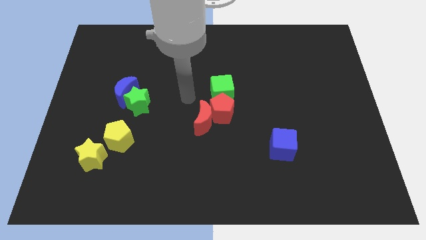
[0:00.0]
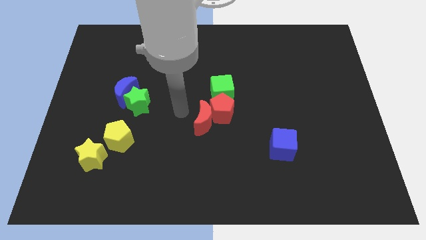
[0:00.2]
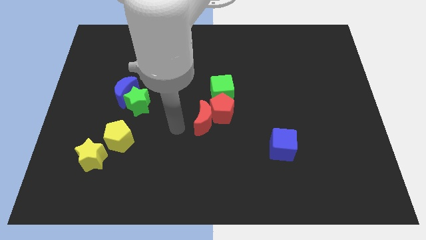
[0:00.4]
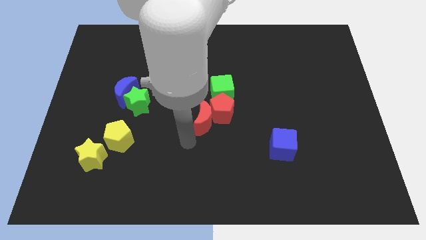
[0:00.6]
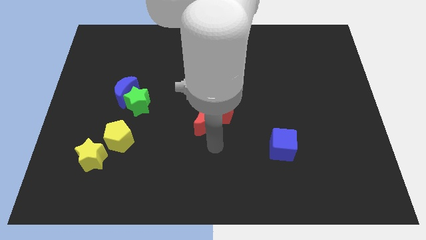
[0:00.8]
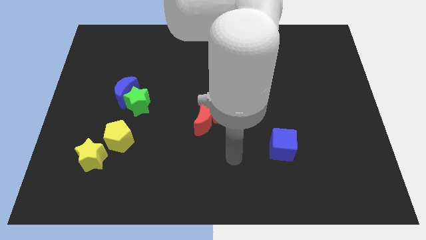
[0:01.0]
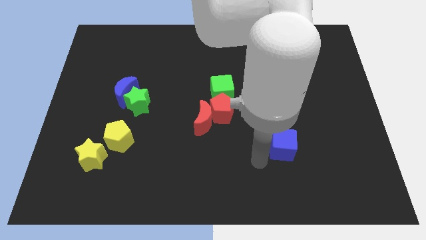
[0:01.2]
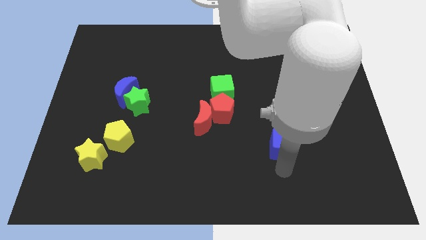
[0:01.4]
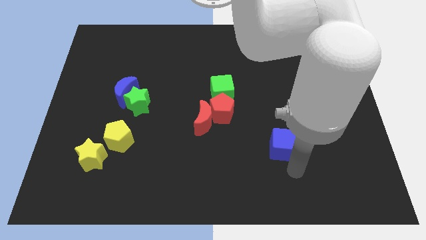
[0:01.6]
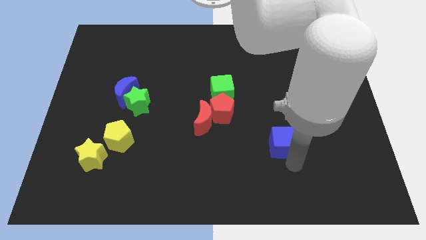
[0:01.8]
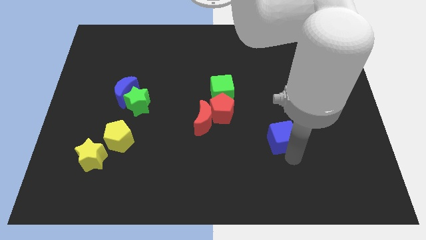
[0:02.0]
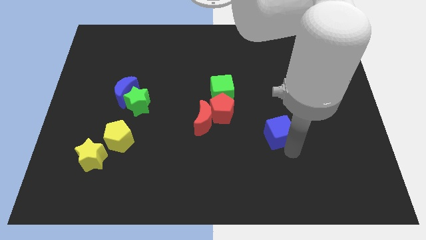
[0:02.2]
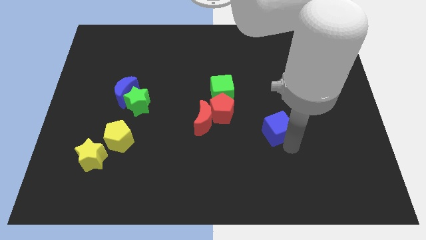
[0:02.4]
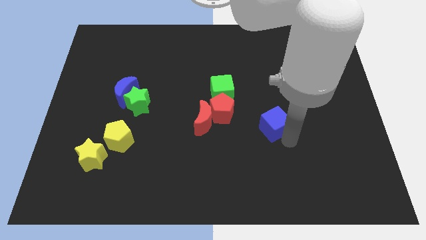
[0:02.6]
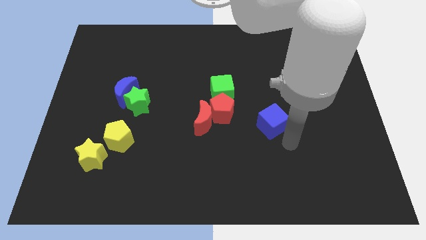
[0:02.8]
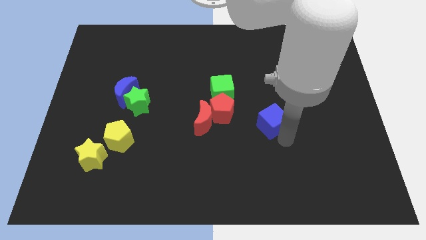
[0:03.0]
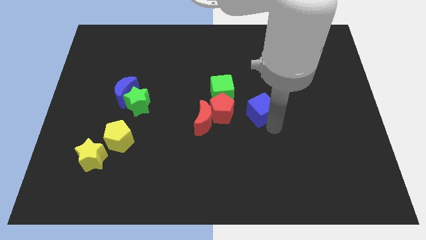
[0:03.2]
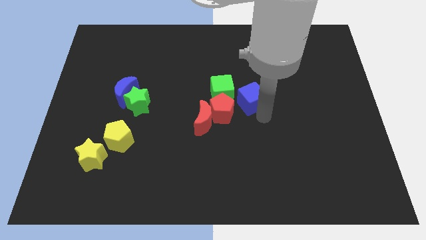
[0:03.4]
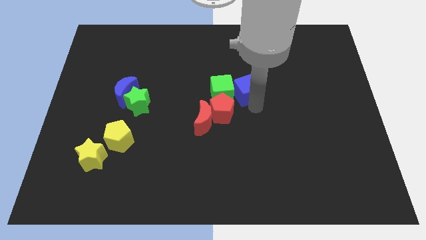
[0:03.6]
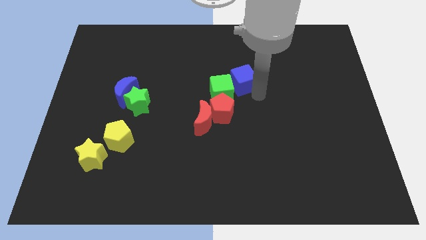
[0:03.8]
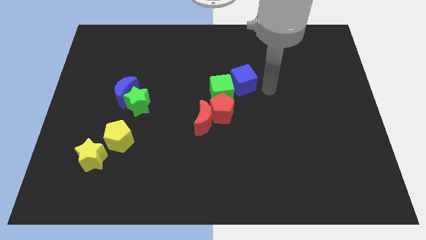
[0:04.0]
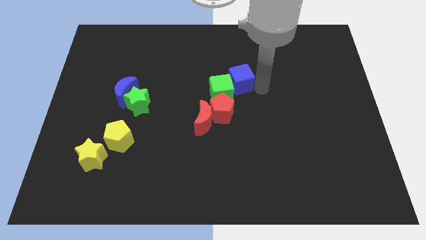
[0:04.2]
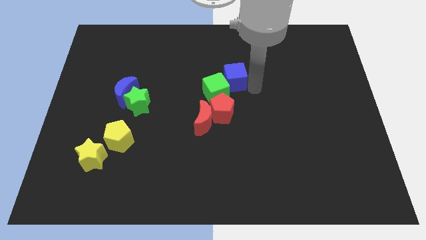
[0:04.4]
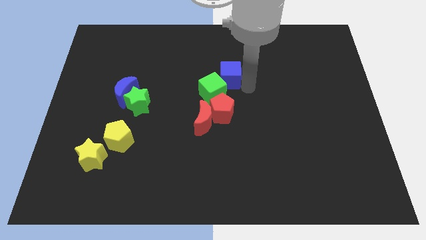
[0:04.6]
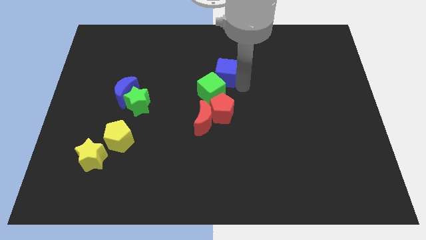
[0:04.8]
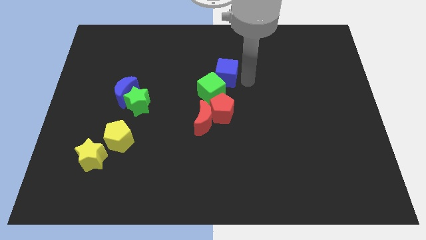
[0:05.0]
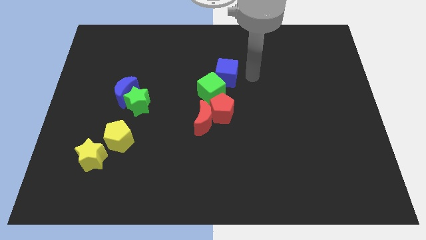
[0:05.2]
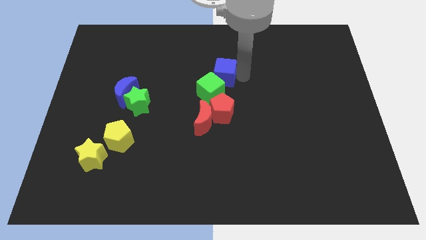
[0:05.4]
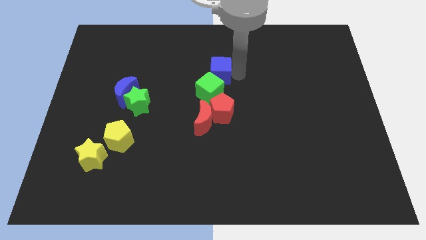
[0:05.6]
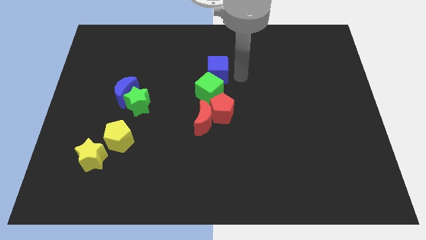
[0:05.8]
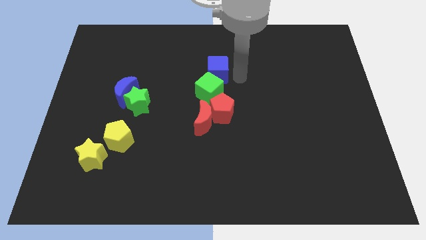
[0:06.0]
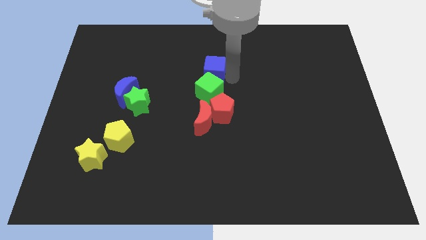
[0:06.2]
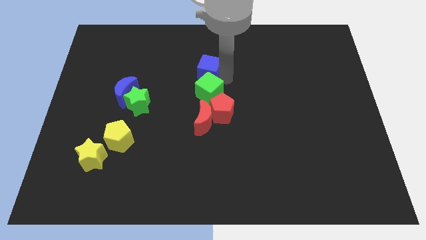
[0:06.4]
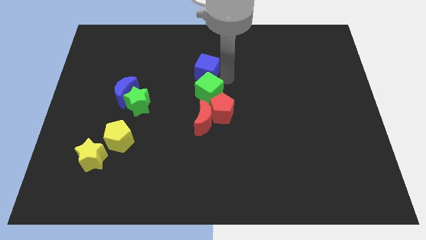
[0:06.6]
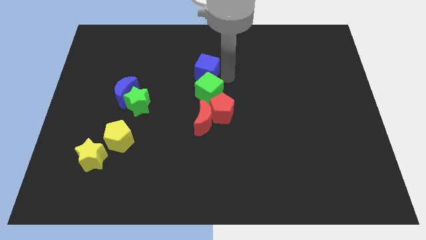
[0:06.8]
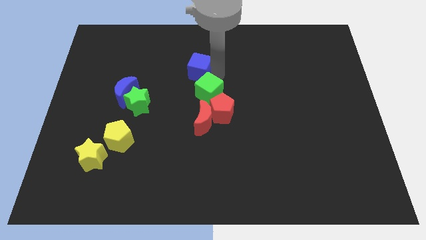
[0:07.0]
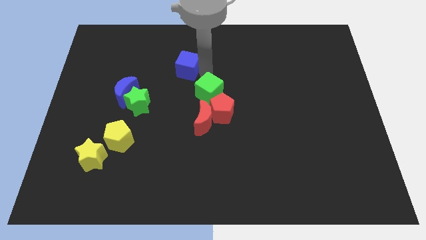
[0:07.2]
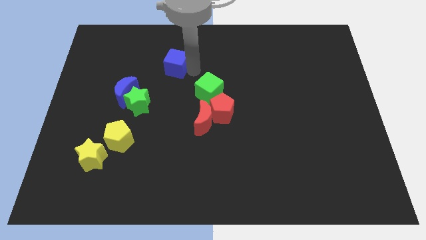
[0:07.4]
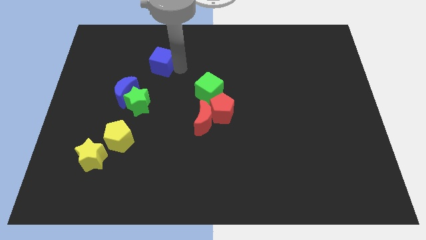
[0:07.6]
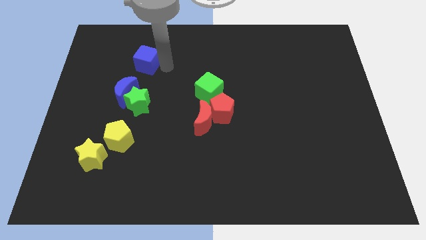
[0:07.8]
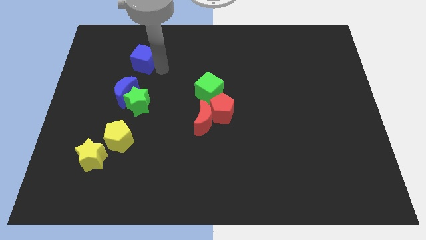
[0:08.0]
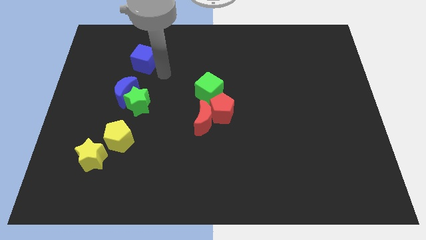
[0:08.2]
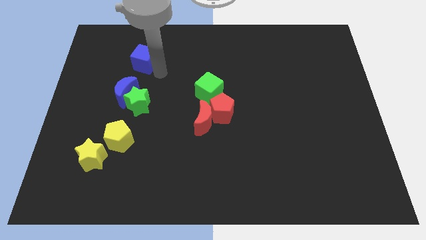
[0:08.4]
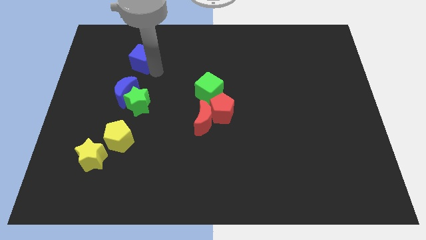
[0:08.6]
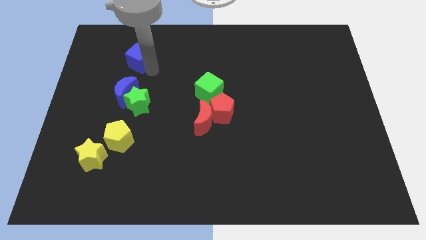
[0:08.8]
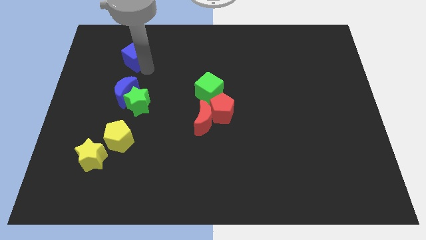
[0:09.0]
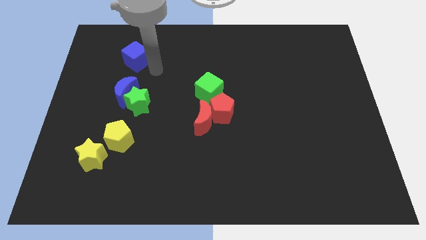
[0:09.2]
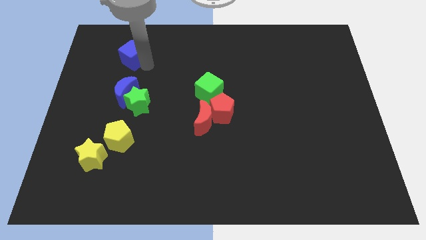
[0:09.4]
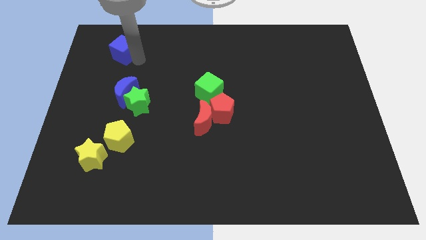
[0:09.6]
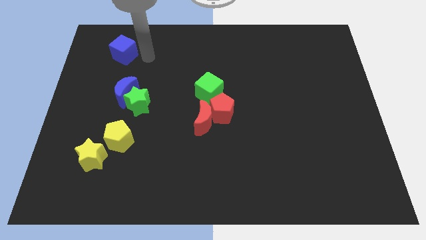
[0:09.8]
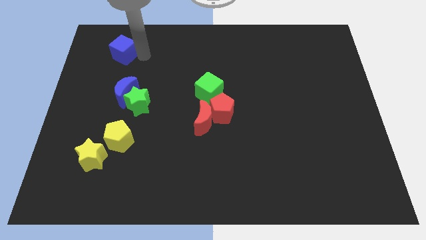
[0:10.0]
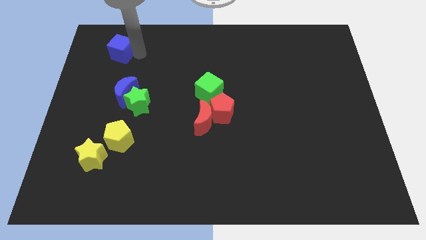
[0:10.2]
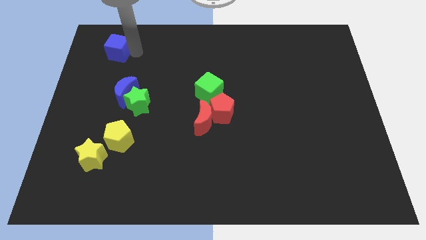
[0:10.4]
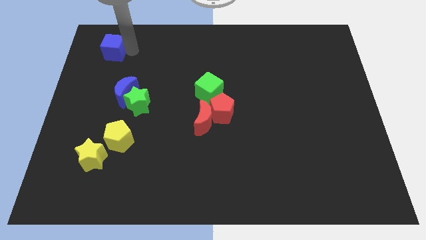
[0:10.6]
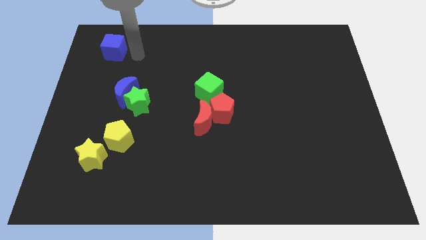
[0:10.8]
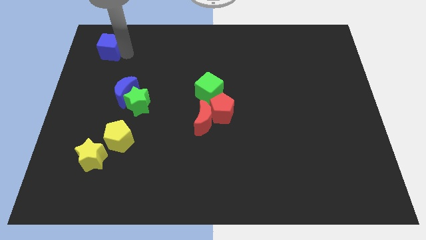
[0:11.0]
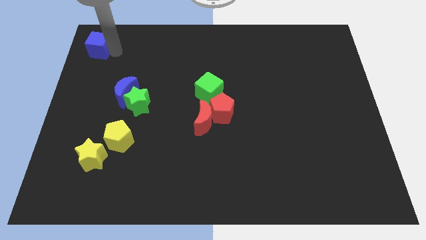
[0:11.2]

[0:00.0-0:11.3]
push the blue cube to the top left
